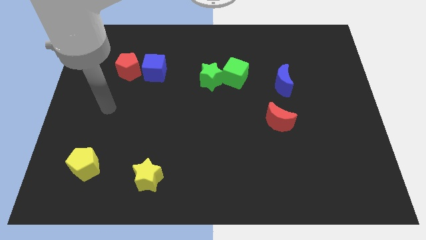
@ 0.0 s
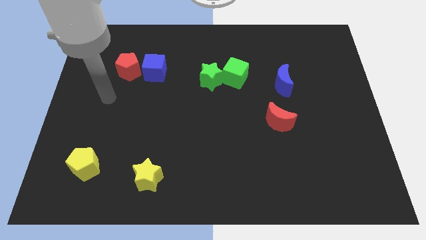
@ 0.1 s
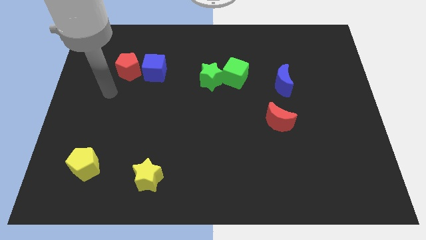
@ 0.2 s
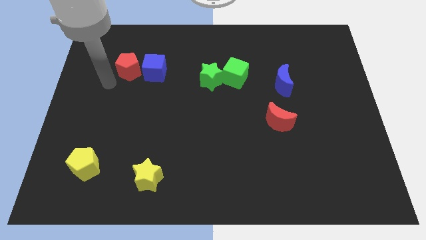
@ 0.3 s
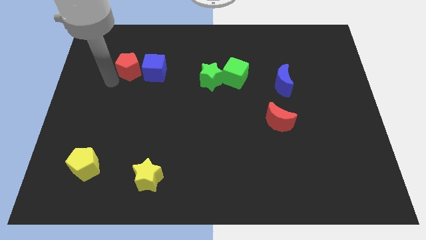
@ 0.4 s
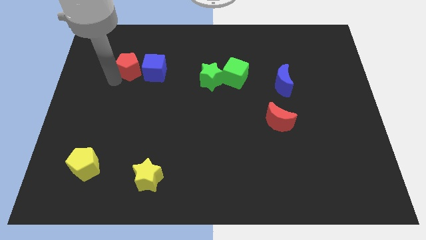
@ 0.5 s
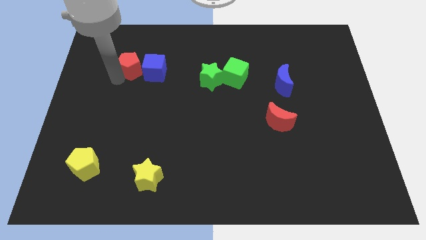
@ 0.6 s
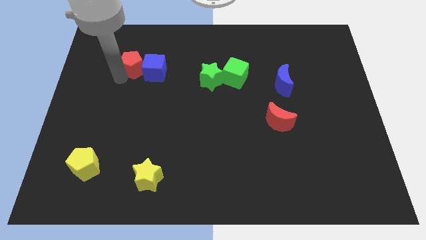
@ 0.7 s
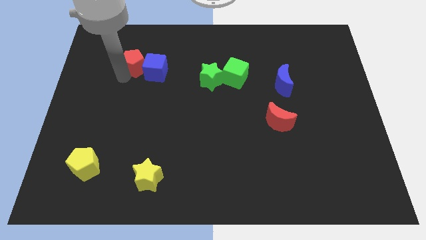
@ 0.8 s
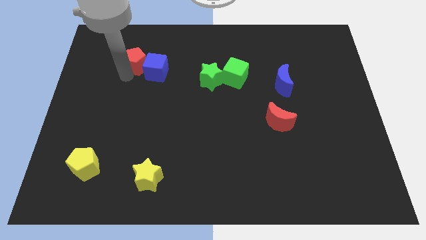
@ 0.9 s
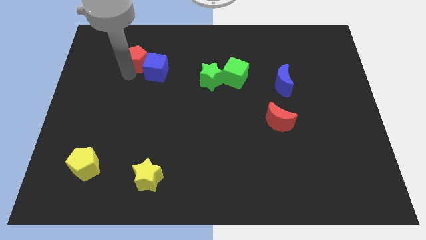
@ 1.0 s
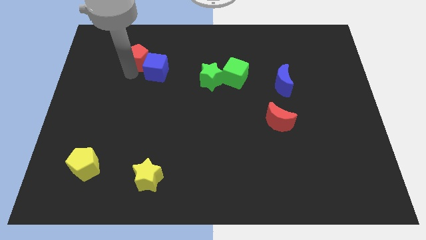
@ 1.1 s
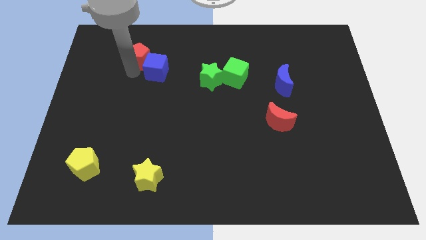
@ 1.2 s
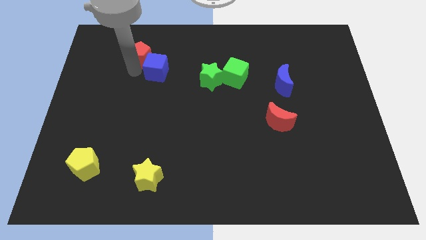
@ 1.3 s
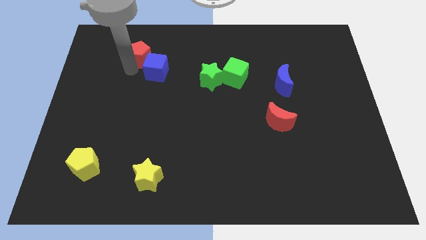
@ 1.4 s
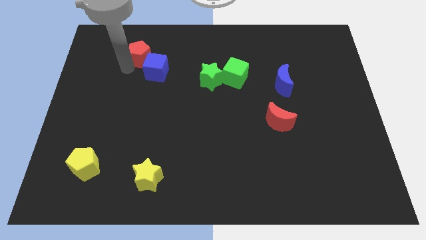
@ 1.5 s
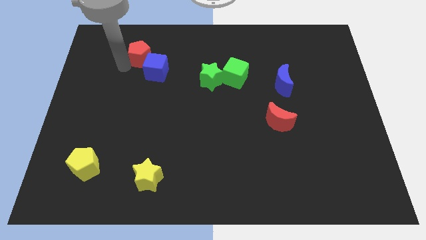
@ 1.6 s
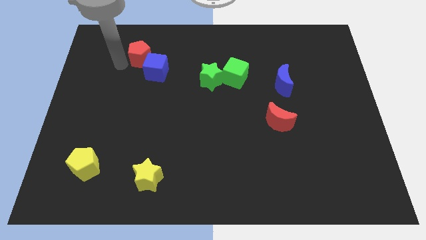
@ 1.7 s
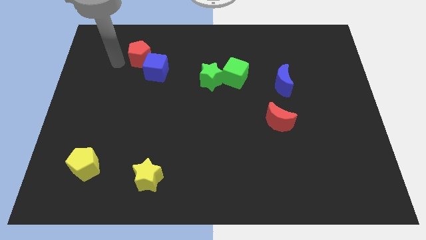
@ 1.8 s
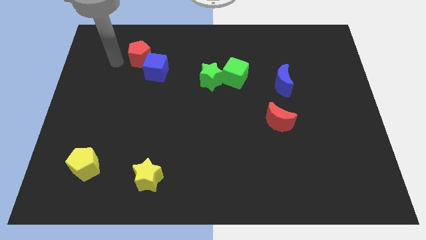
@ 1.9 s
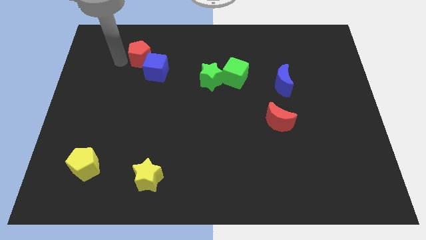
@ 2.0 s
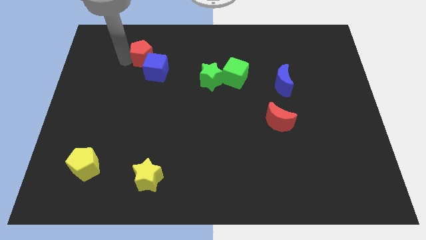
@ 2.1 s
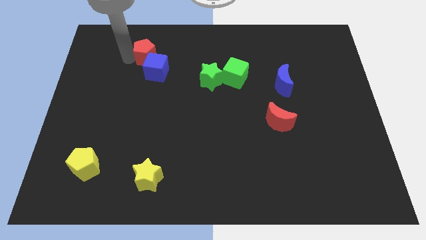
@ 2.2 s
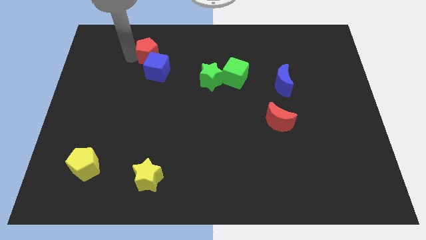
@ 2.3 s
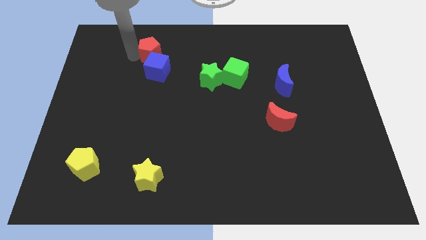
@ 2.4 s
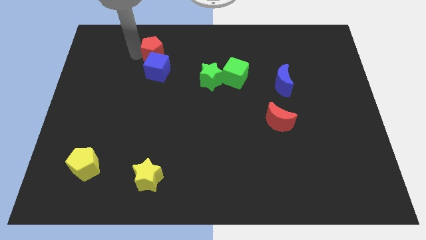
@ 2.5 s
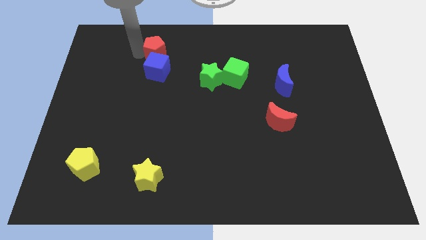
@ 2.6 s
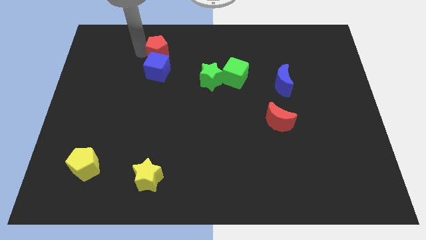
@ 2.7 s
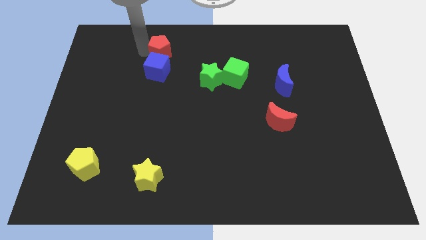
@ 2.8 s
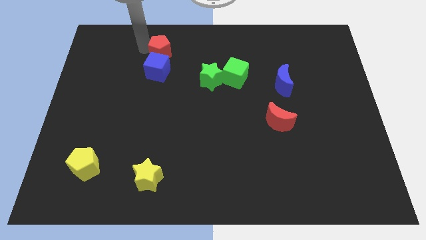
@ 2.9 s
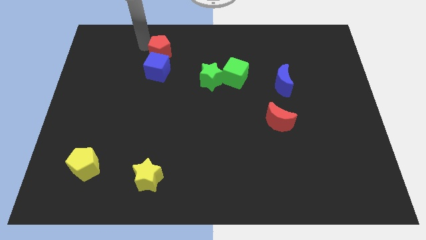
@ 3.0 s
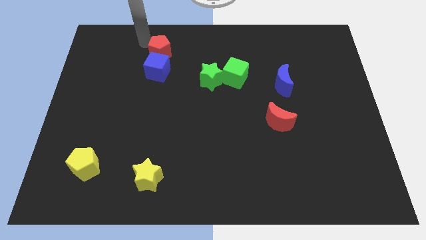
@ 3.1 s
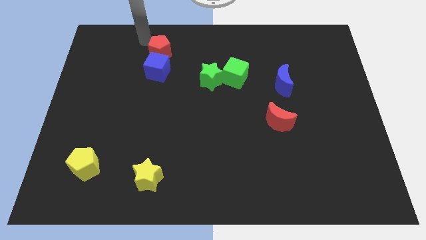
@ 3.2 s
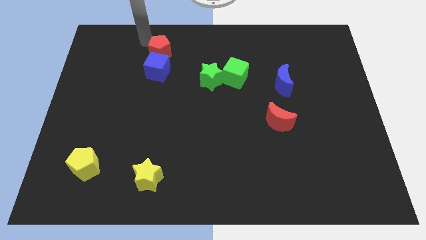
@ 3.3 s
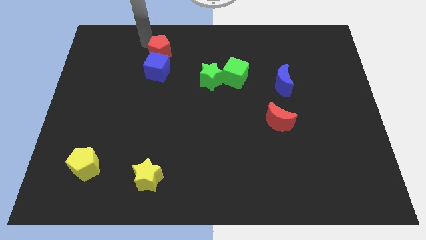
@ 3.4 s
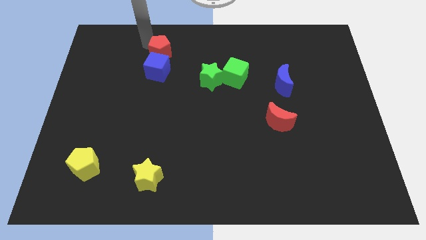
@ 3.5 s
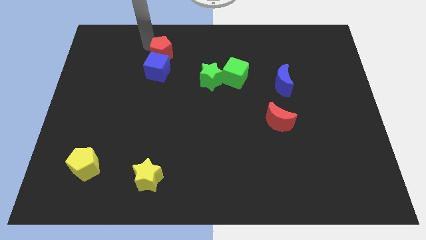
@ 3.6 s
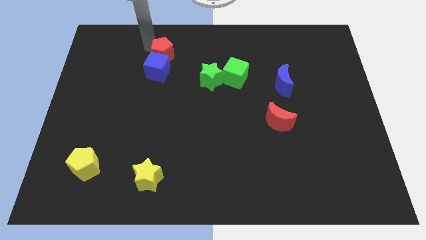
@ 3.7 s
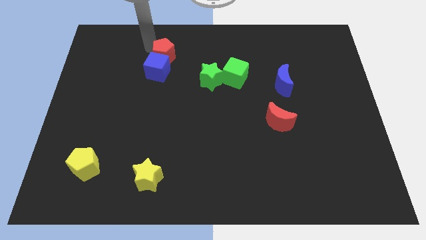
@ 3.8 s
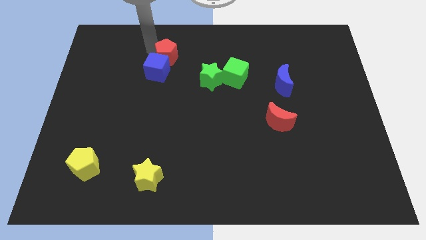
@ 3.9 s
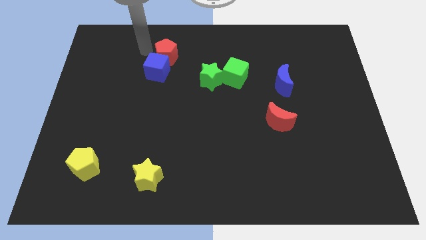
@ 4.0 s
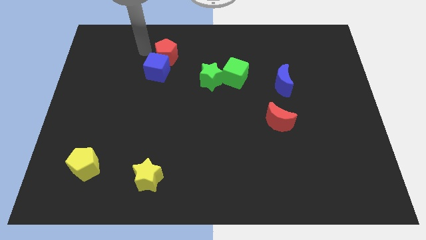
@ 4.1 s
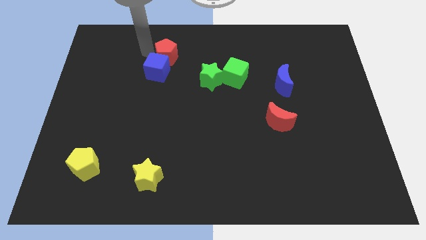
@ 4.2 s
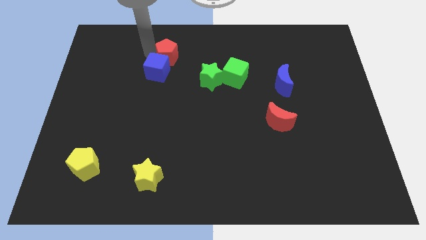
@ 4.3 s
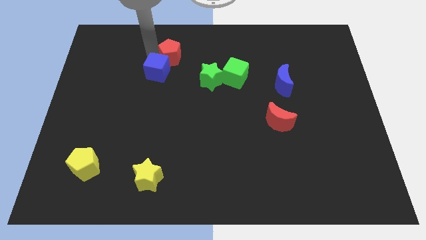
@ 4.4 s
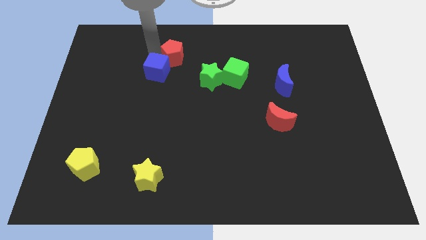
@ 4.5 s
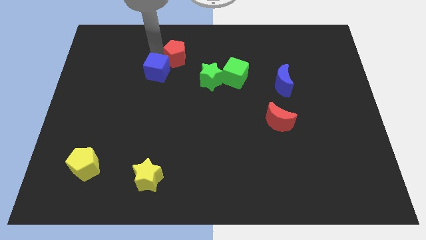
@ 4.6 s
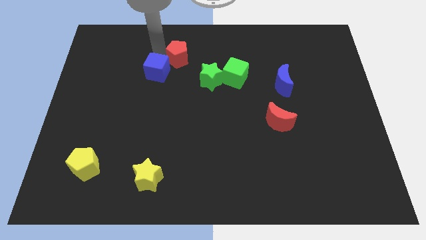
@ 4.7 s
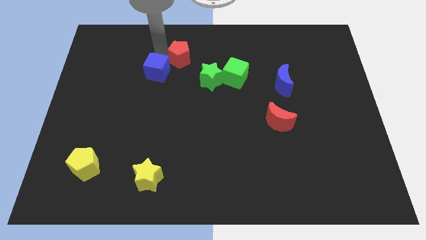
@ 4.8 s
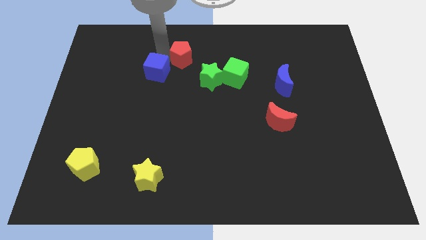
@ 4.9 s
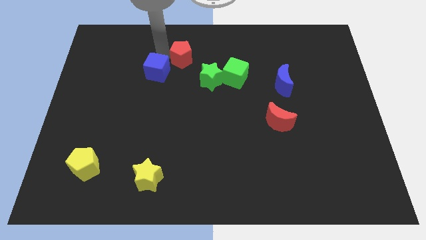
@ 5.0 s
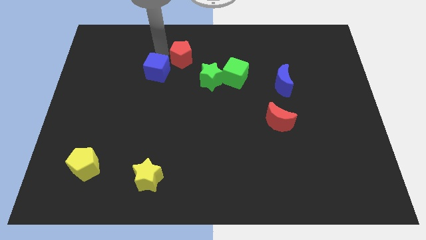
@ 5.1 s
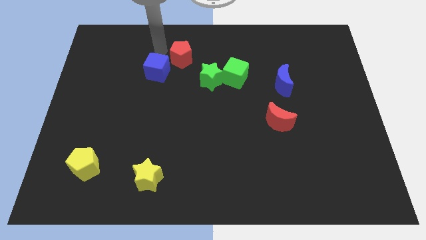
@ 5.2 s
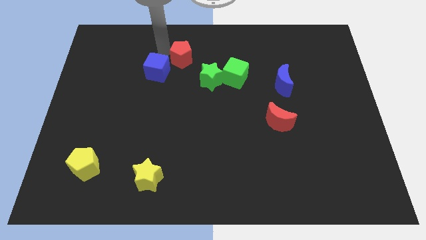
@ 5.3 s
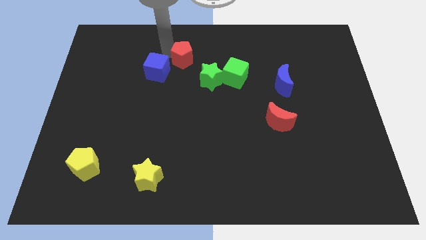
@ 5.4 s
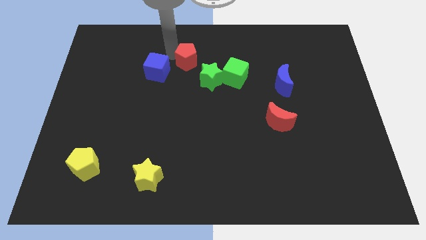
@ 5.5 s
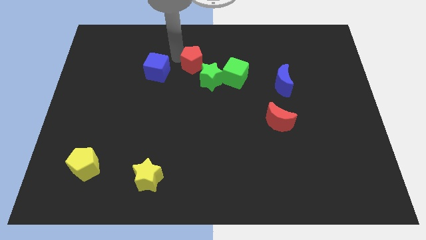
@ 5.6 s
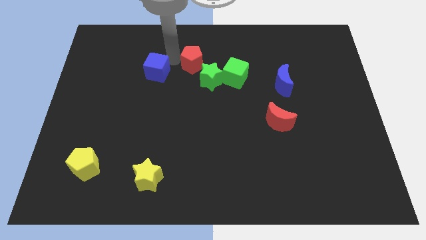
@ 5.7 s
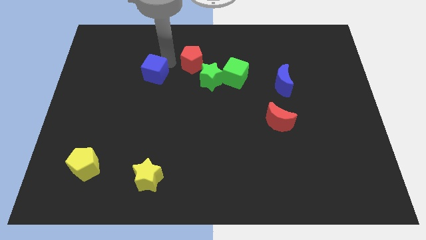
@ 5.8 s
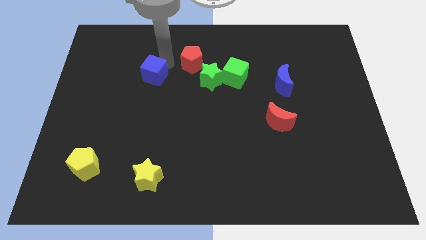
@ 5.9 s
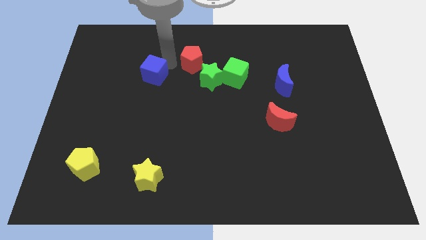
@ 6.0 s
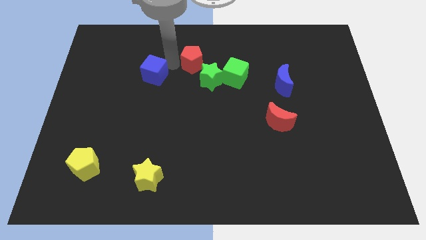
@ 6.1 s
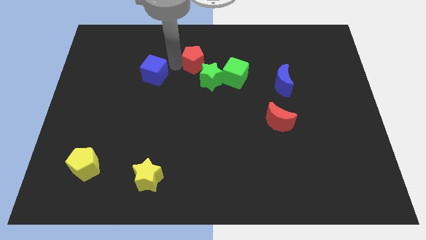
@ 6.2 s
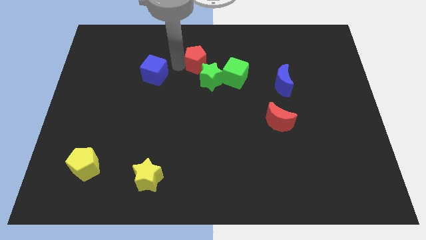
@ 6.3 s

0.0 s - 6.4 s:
slide the red pentagon to the top left of the green cube

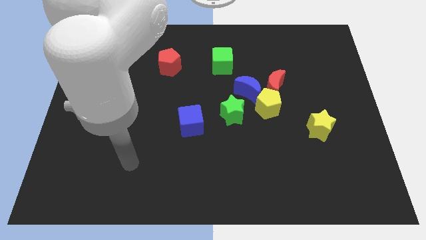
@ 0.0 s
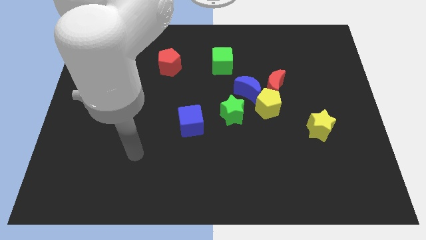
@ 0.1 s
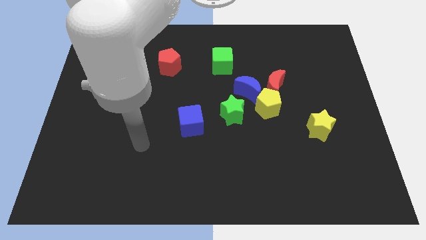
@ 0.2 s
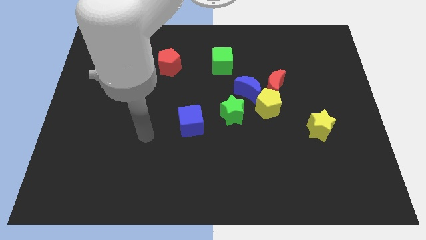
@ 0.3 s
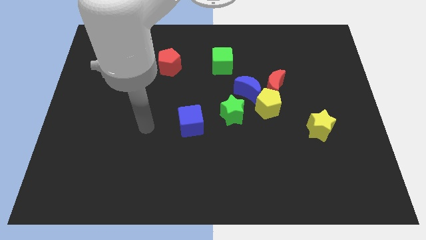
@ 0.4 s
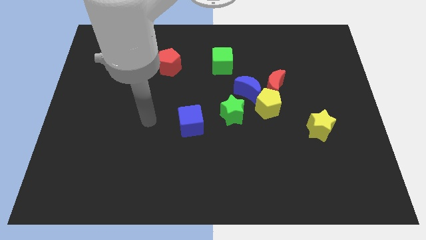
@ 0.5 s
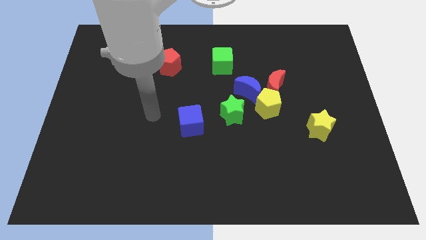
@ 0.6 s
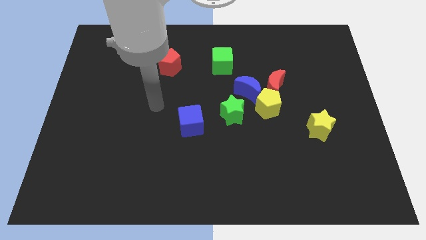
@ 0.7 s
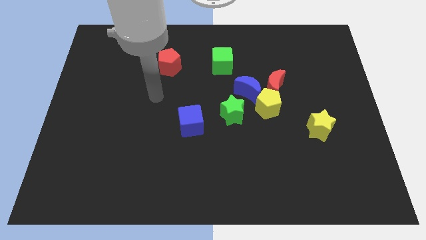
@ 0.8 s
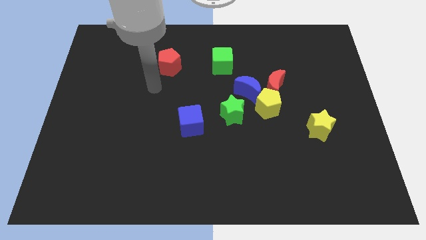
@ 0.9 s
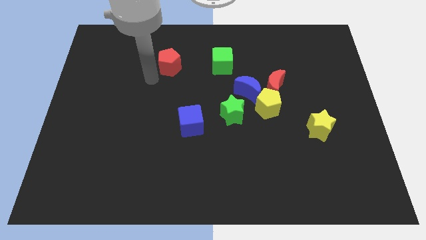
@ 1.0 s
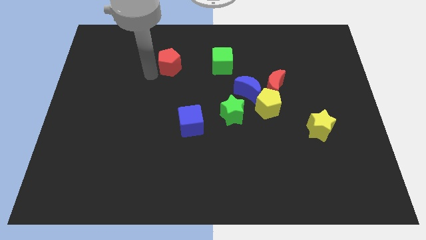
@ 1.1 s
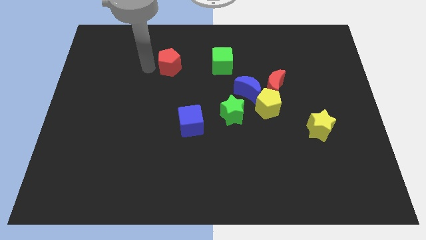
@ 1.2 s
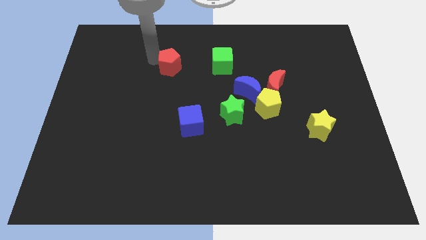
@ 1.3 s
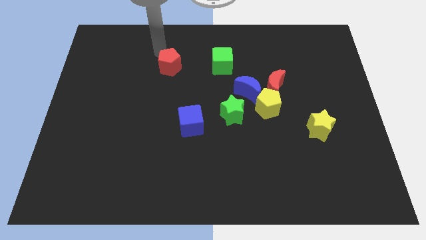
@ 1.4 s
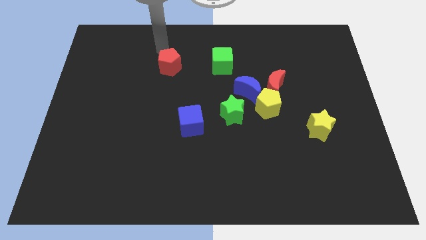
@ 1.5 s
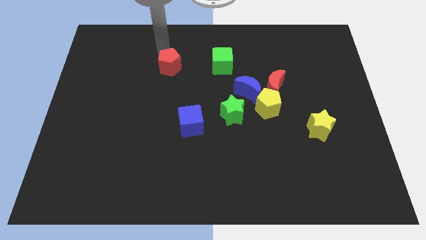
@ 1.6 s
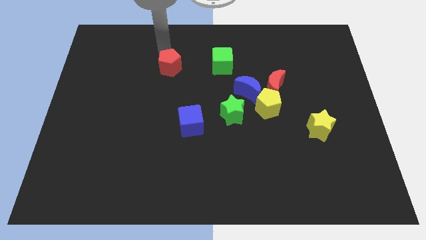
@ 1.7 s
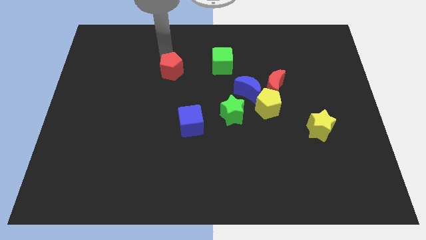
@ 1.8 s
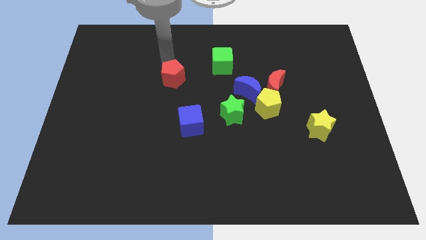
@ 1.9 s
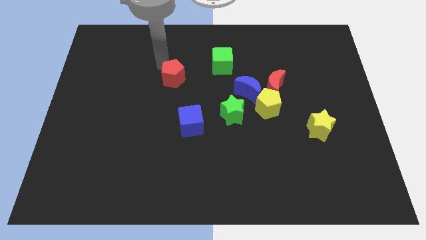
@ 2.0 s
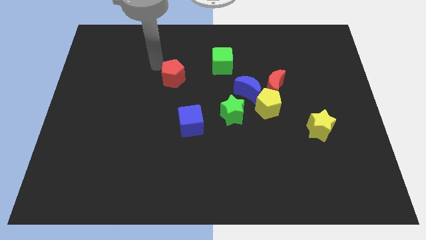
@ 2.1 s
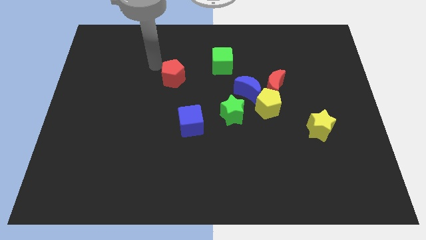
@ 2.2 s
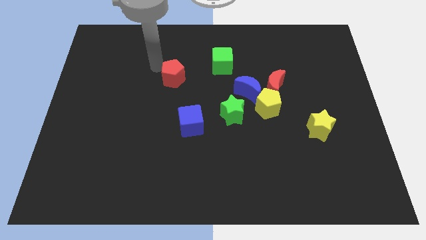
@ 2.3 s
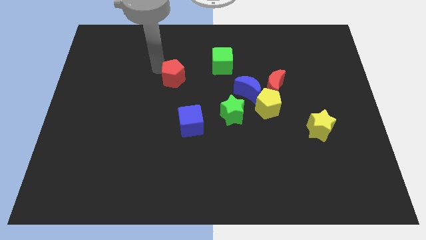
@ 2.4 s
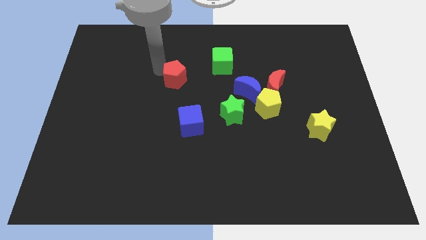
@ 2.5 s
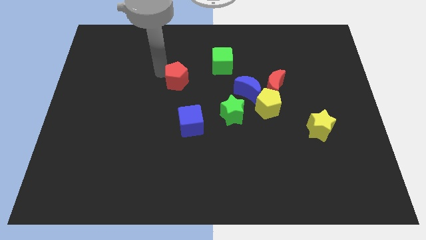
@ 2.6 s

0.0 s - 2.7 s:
move the red pentagon above the blue cube
